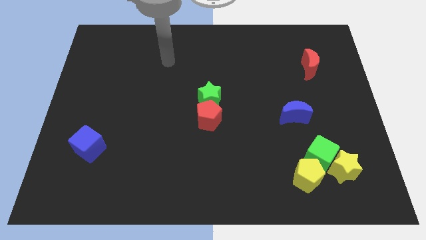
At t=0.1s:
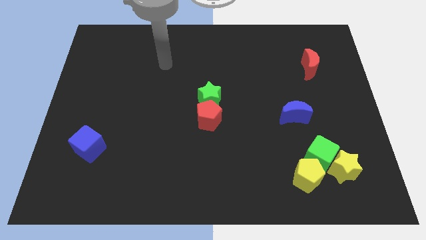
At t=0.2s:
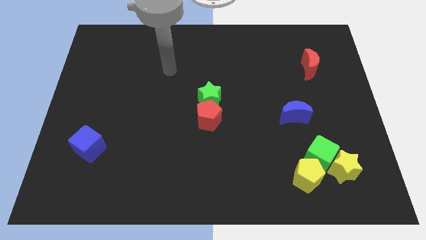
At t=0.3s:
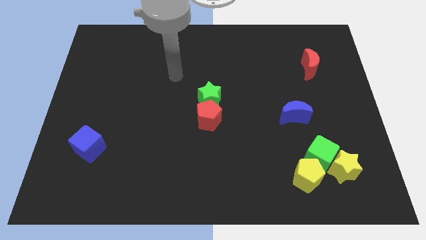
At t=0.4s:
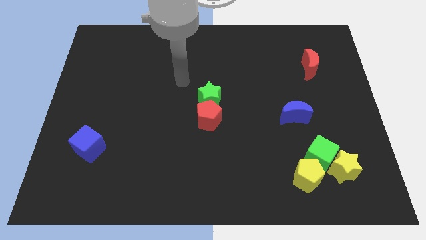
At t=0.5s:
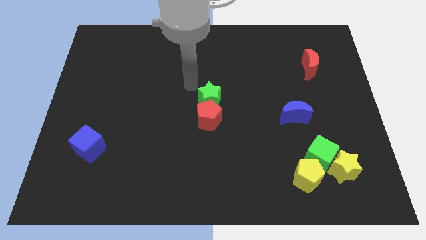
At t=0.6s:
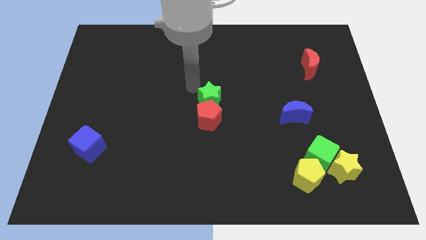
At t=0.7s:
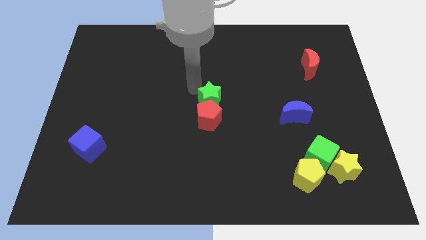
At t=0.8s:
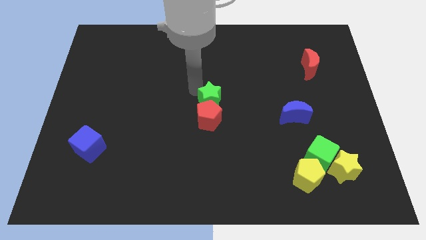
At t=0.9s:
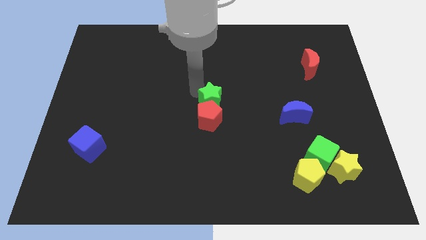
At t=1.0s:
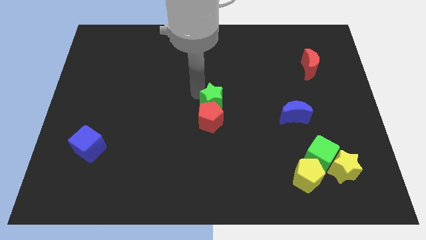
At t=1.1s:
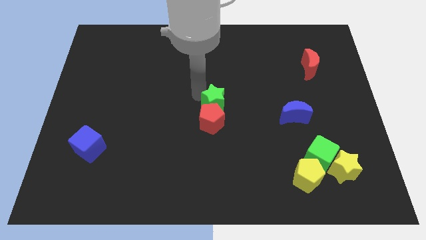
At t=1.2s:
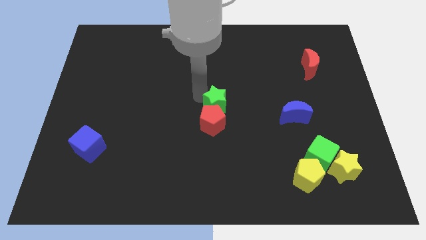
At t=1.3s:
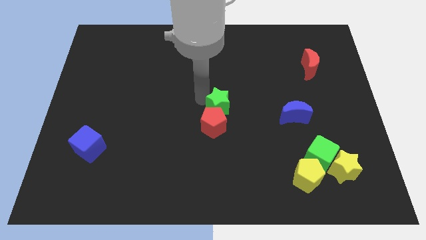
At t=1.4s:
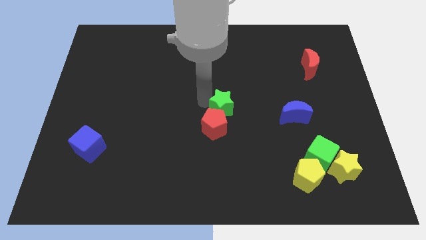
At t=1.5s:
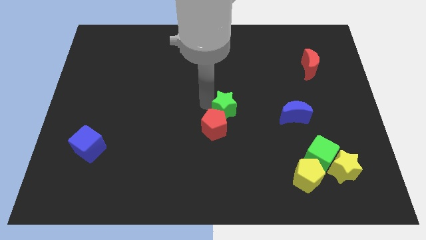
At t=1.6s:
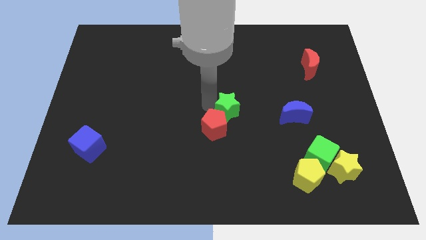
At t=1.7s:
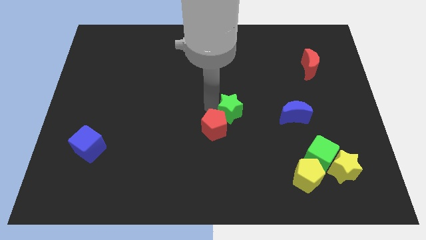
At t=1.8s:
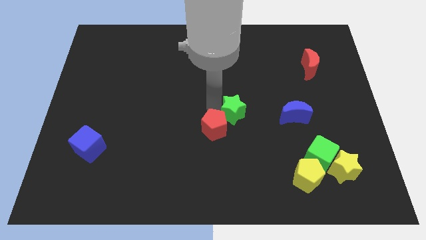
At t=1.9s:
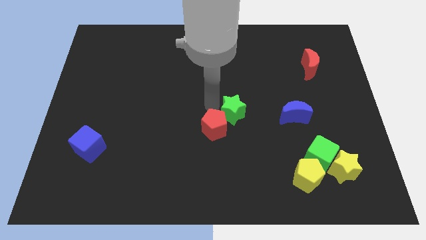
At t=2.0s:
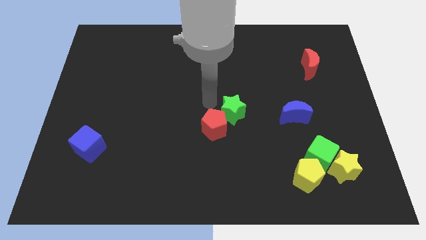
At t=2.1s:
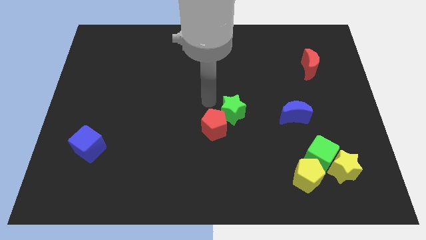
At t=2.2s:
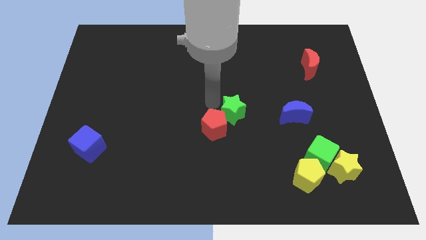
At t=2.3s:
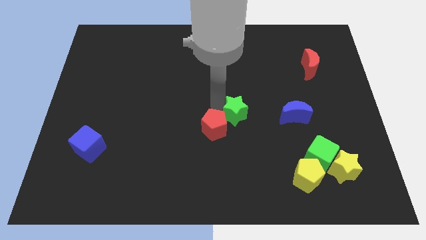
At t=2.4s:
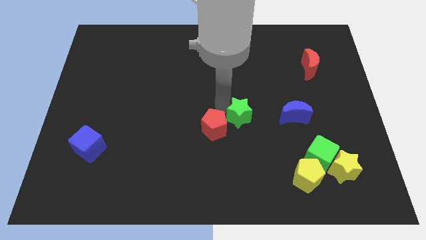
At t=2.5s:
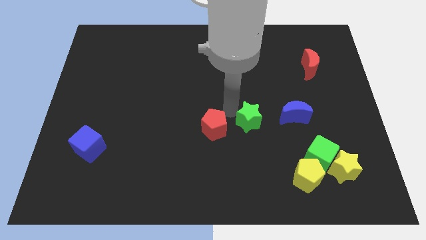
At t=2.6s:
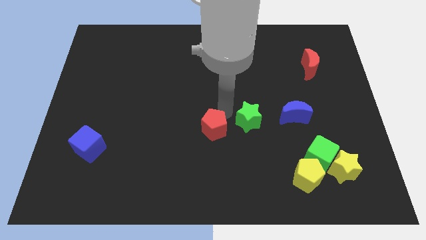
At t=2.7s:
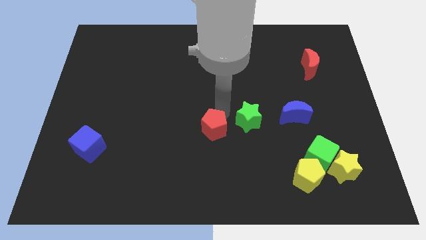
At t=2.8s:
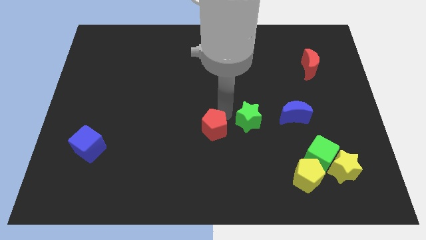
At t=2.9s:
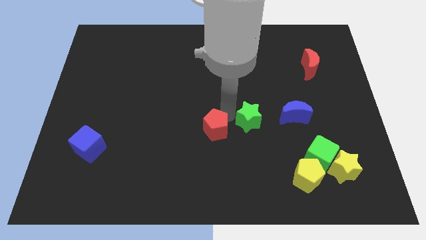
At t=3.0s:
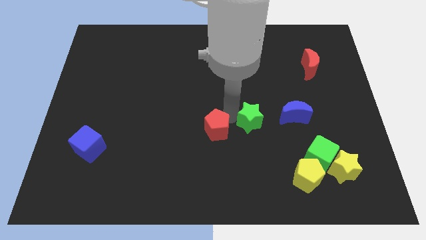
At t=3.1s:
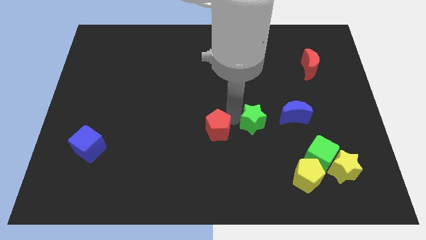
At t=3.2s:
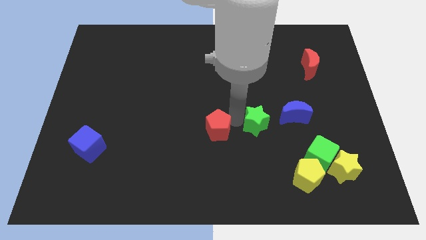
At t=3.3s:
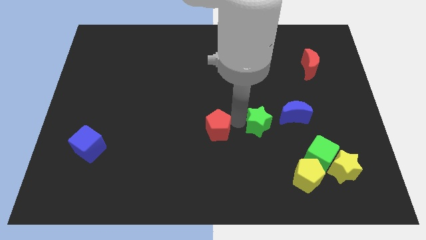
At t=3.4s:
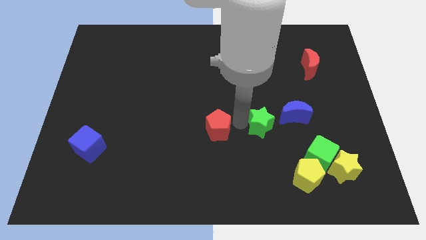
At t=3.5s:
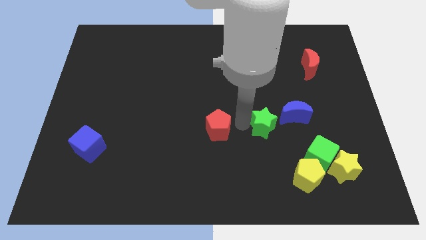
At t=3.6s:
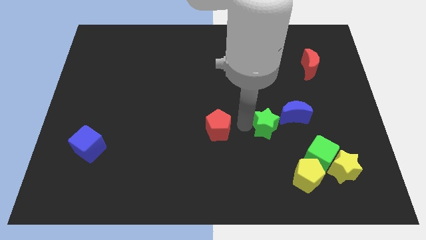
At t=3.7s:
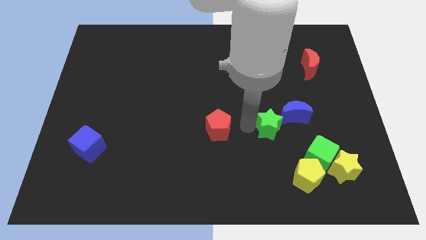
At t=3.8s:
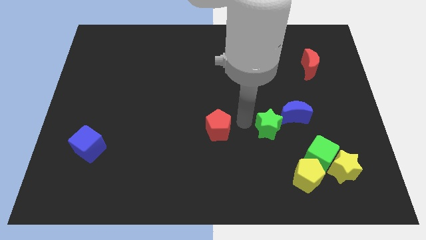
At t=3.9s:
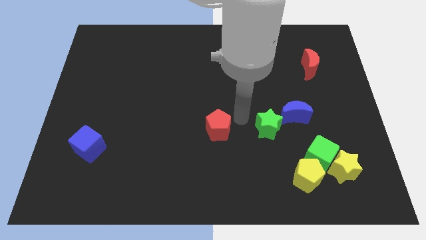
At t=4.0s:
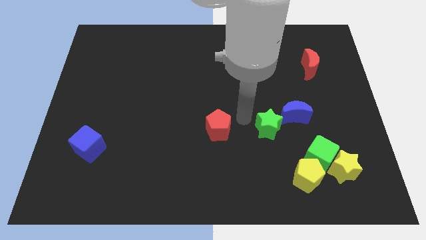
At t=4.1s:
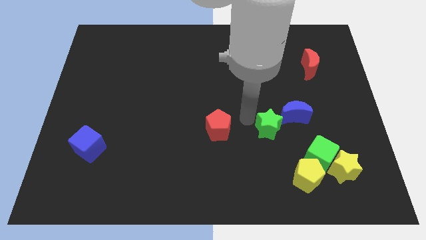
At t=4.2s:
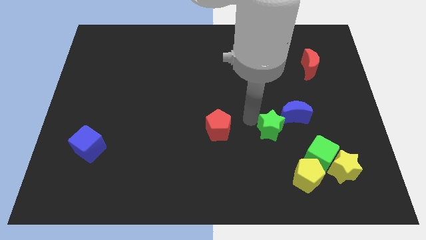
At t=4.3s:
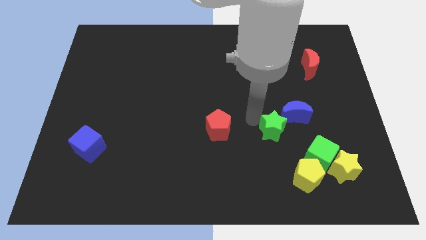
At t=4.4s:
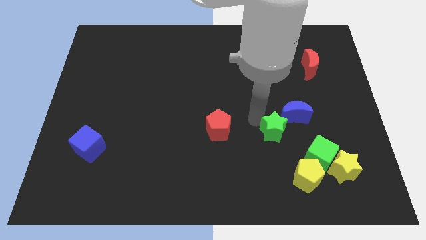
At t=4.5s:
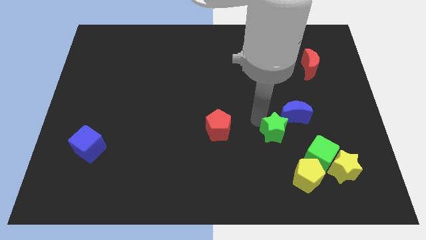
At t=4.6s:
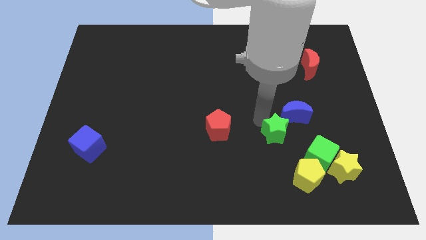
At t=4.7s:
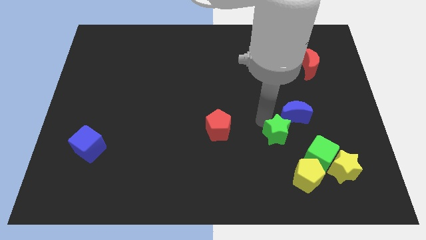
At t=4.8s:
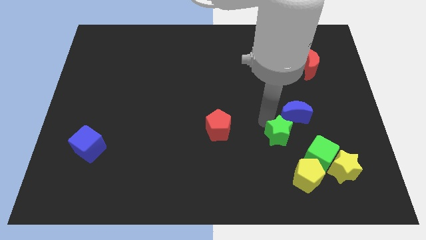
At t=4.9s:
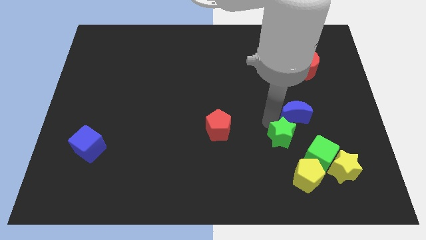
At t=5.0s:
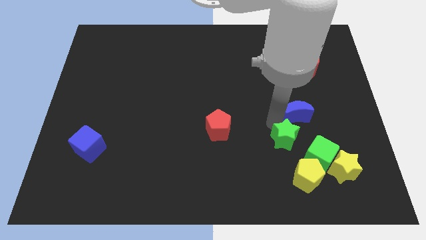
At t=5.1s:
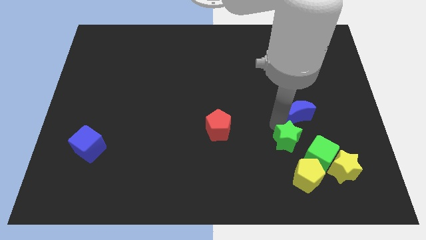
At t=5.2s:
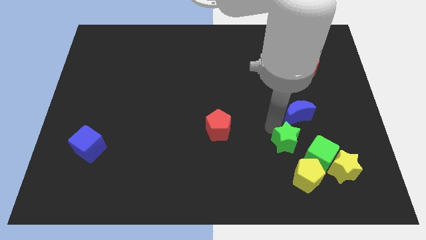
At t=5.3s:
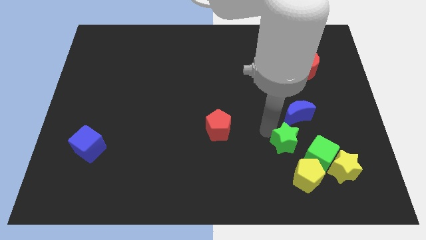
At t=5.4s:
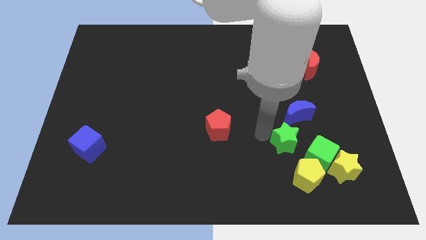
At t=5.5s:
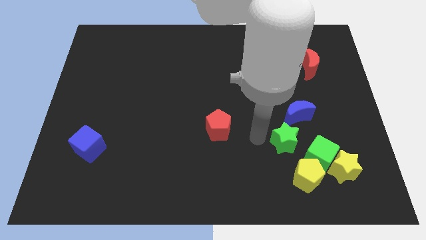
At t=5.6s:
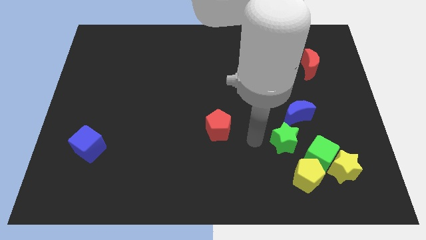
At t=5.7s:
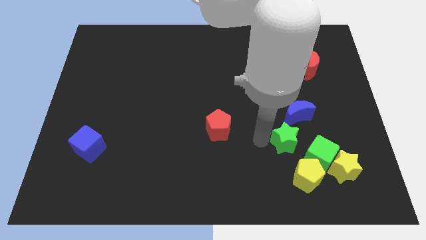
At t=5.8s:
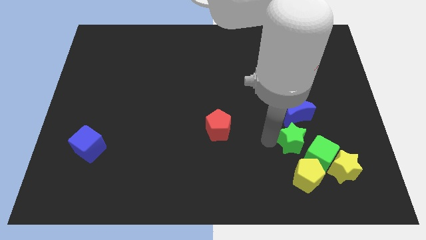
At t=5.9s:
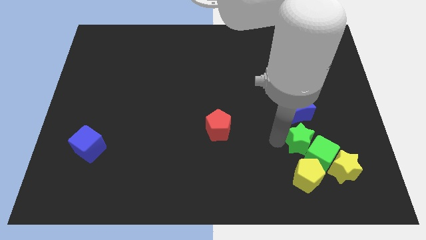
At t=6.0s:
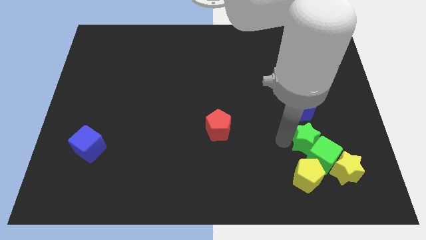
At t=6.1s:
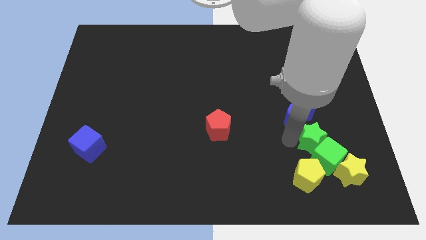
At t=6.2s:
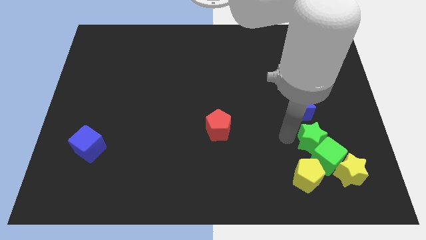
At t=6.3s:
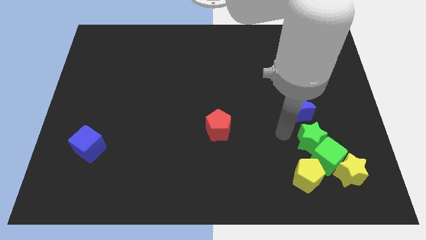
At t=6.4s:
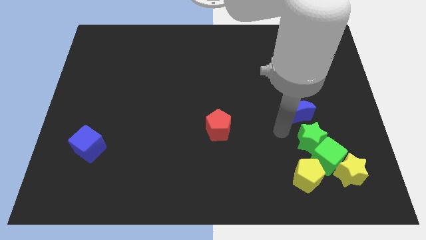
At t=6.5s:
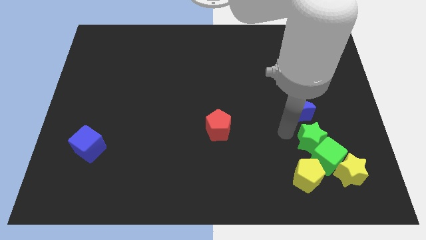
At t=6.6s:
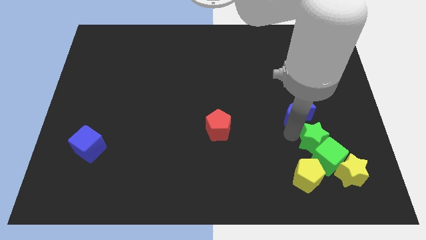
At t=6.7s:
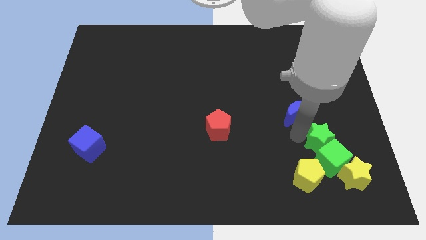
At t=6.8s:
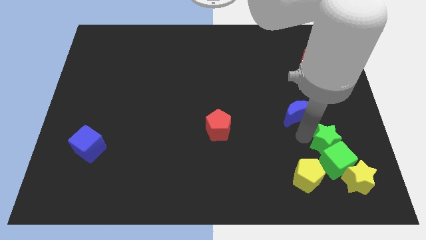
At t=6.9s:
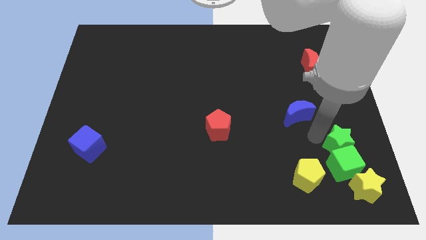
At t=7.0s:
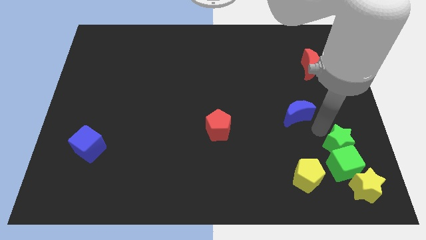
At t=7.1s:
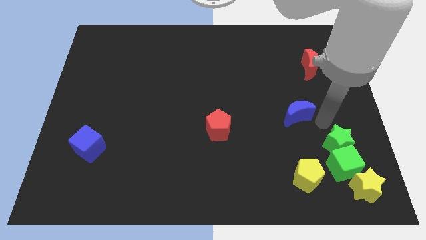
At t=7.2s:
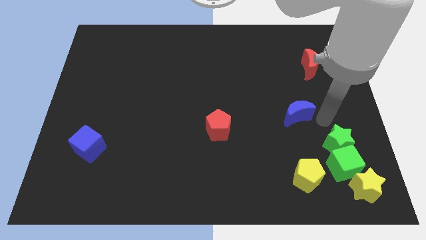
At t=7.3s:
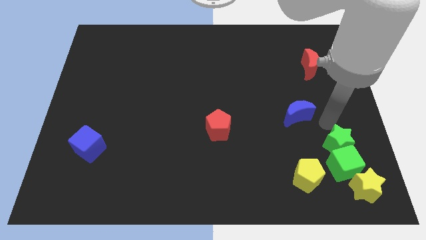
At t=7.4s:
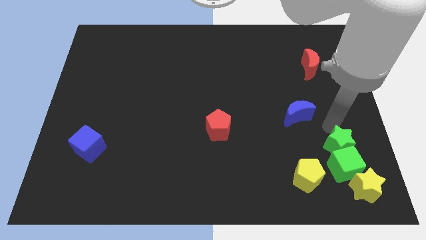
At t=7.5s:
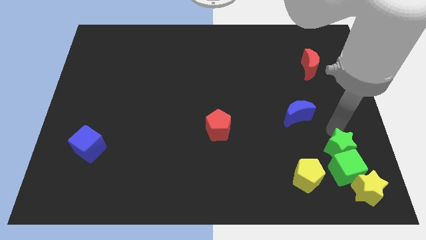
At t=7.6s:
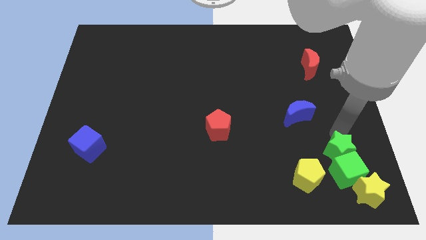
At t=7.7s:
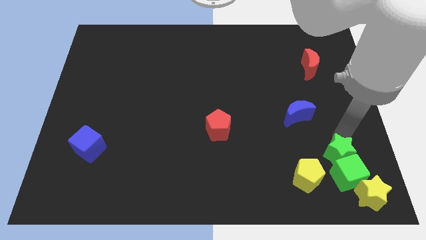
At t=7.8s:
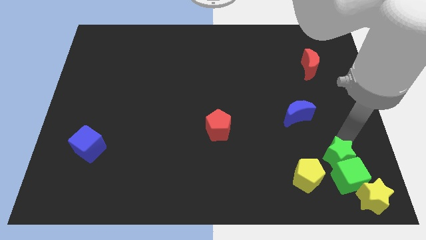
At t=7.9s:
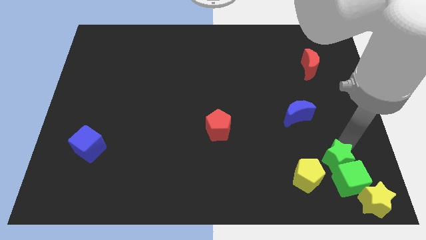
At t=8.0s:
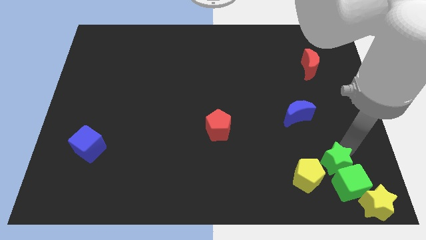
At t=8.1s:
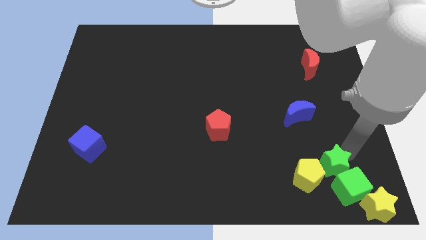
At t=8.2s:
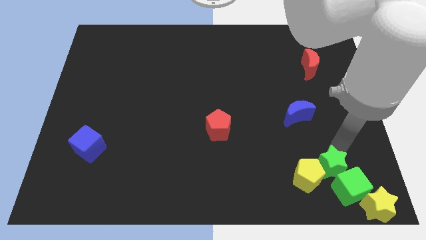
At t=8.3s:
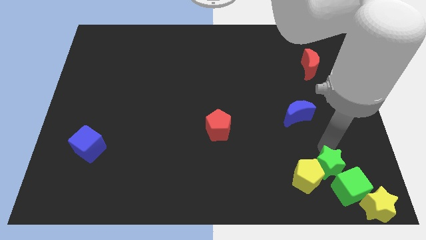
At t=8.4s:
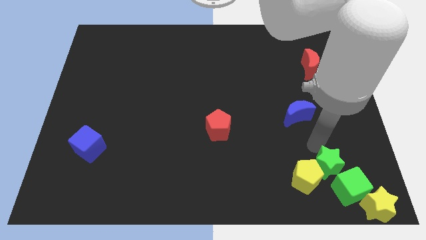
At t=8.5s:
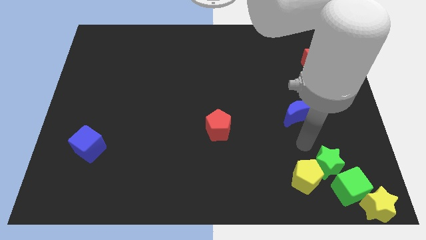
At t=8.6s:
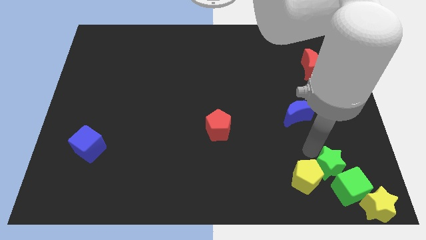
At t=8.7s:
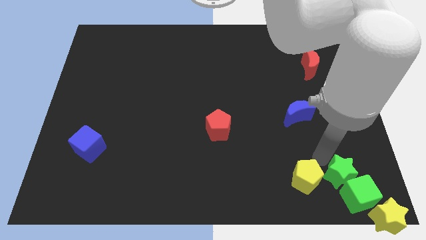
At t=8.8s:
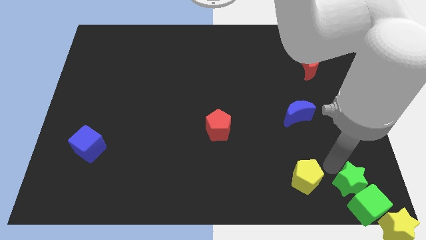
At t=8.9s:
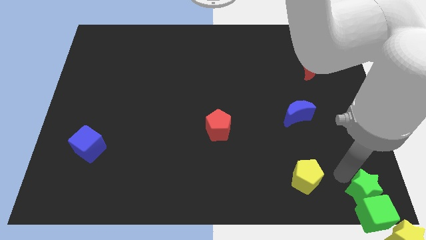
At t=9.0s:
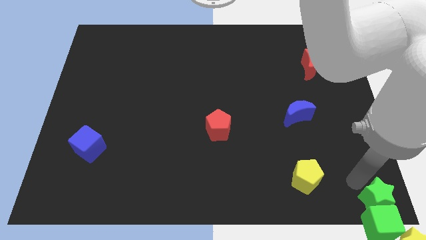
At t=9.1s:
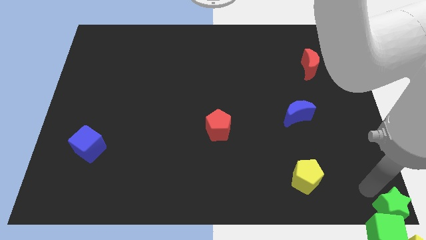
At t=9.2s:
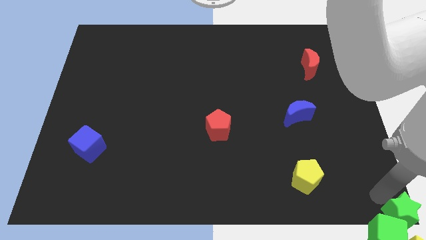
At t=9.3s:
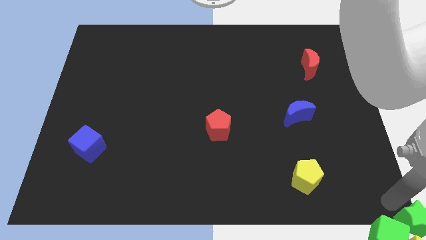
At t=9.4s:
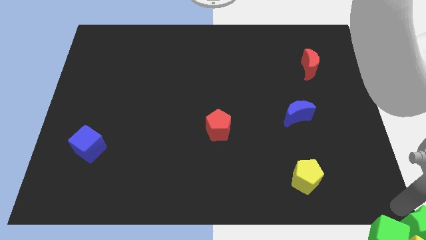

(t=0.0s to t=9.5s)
move the green star close to the yellow star
